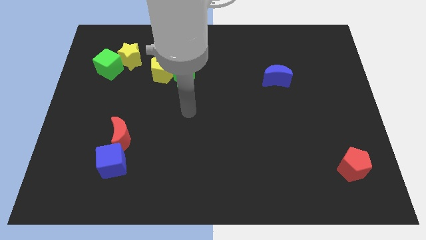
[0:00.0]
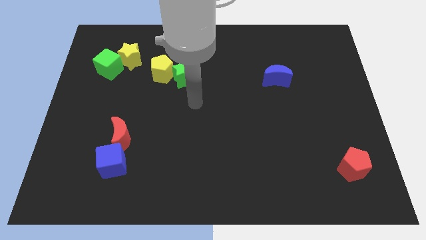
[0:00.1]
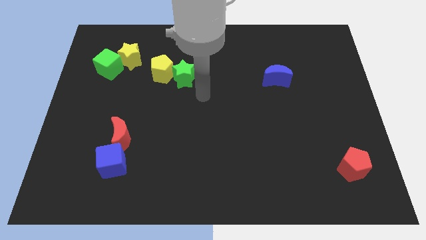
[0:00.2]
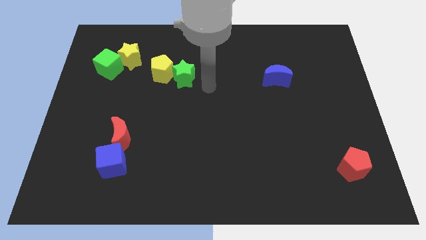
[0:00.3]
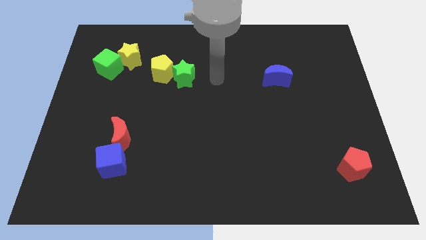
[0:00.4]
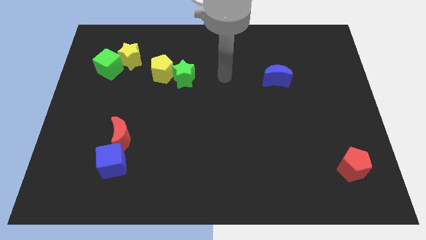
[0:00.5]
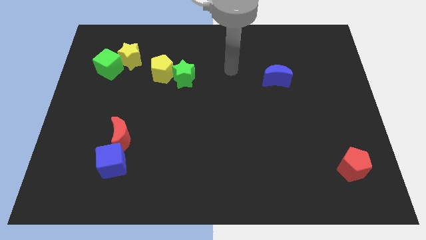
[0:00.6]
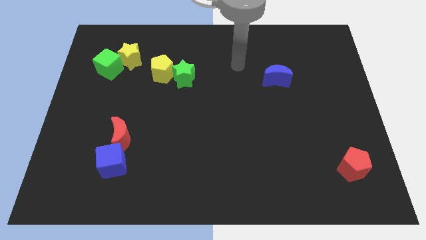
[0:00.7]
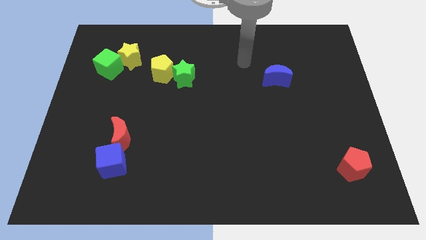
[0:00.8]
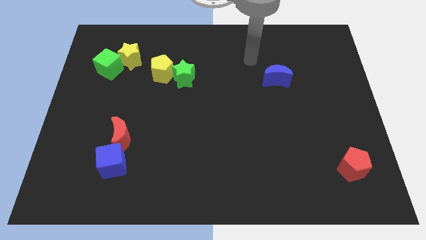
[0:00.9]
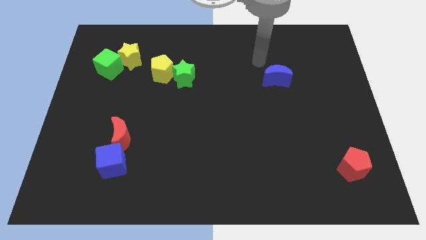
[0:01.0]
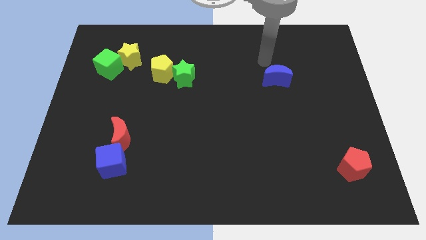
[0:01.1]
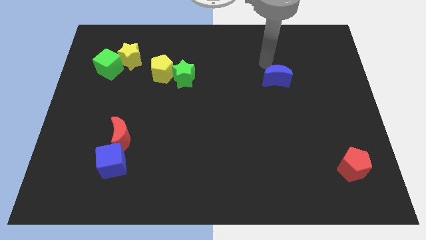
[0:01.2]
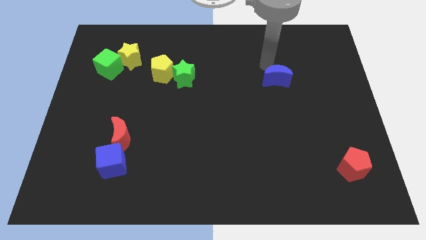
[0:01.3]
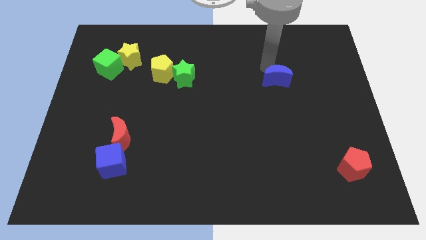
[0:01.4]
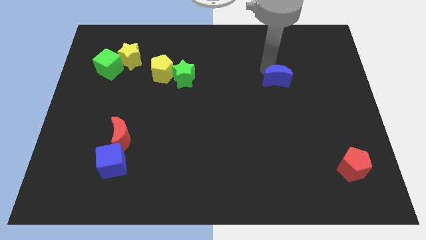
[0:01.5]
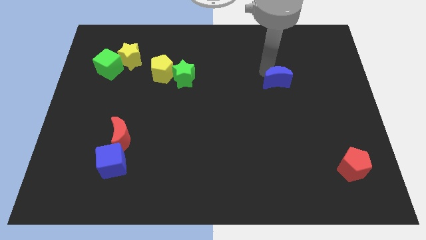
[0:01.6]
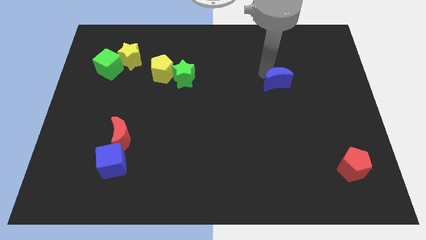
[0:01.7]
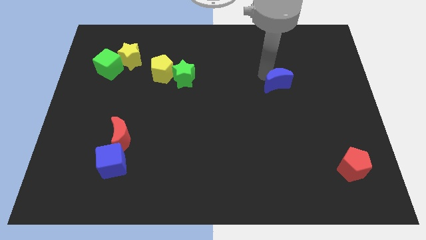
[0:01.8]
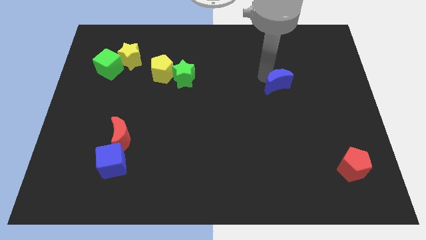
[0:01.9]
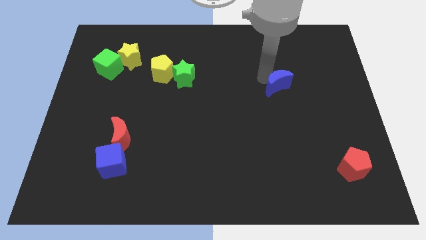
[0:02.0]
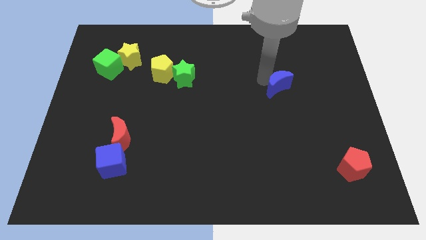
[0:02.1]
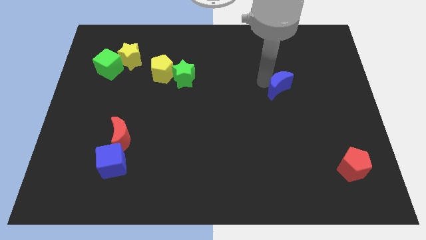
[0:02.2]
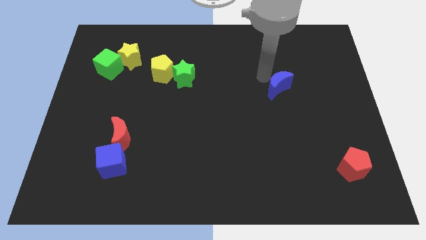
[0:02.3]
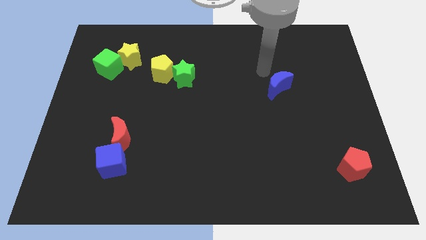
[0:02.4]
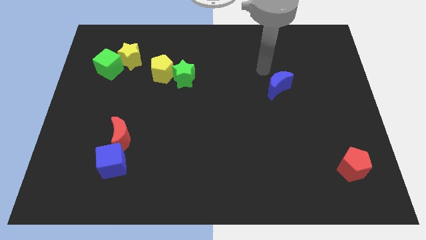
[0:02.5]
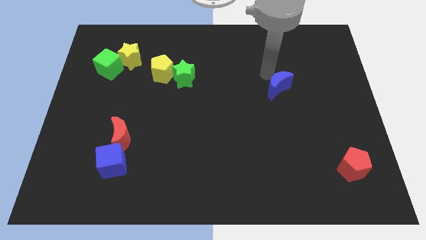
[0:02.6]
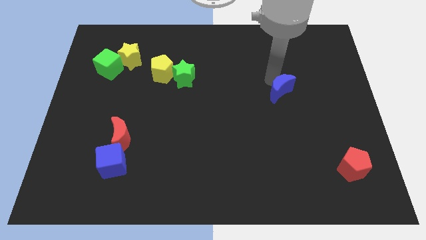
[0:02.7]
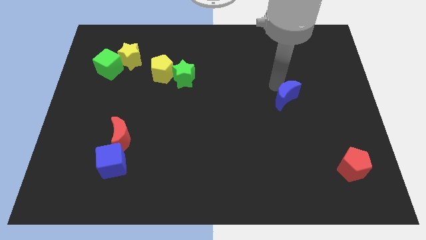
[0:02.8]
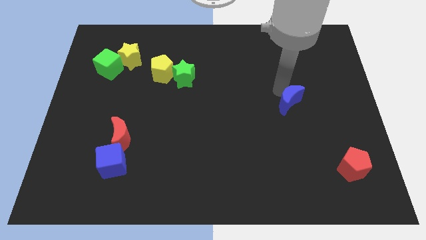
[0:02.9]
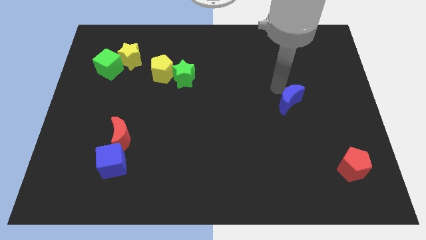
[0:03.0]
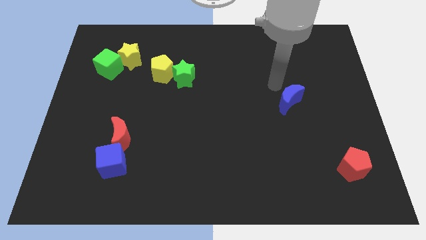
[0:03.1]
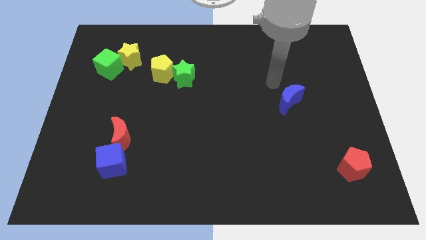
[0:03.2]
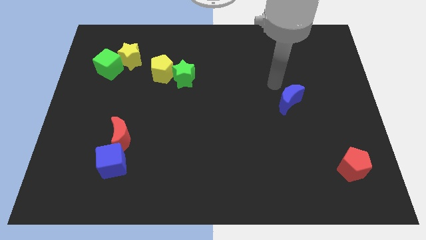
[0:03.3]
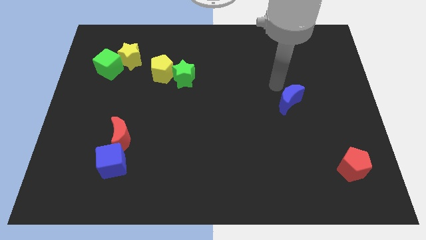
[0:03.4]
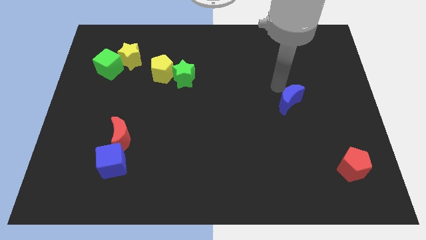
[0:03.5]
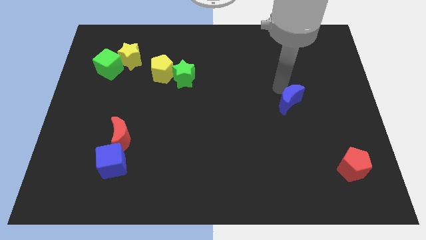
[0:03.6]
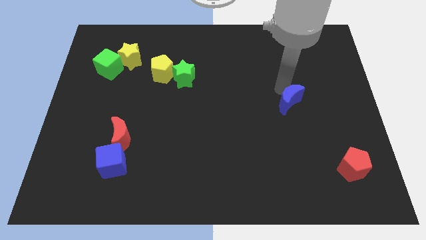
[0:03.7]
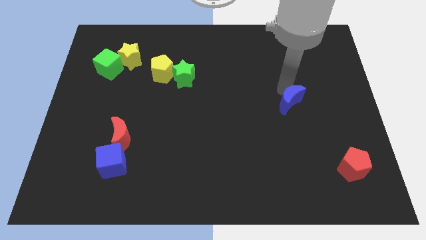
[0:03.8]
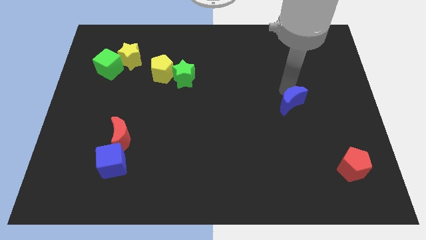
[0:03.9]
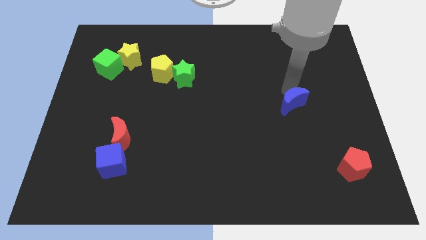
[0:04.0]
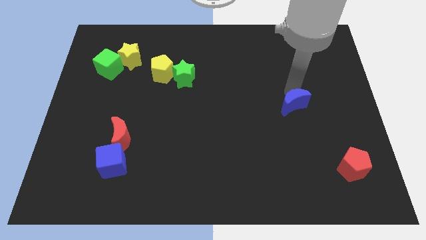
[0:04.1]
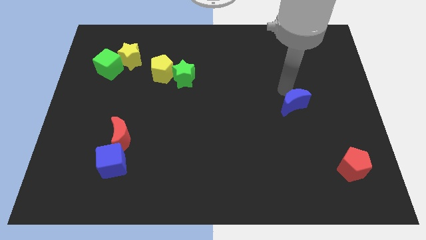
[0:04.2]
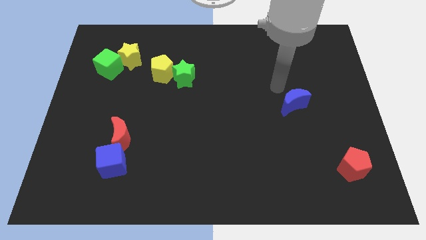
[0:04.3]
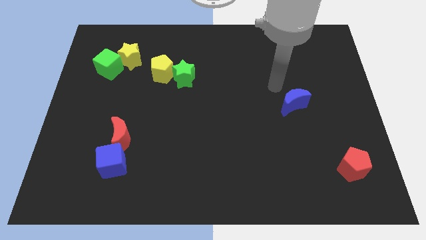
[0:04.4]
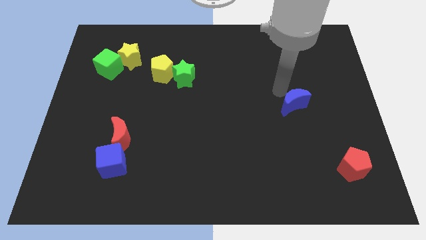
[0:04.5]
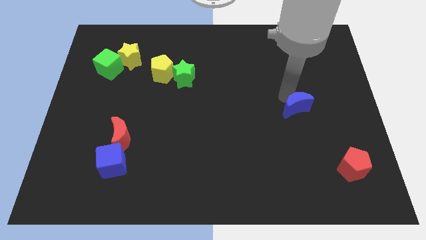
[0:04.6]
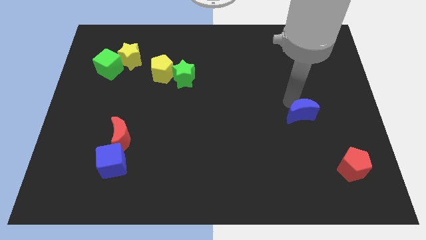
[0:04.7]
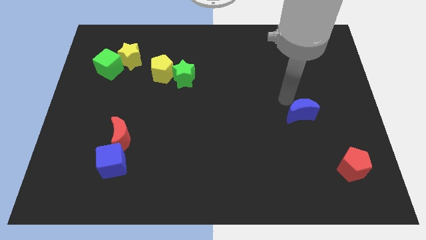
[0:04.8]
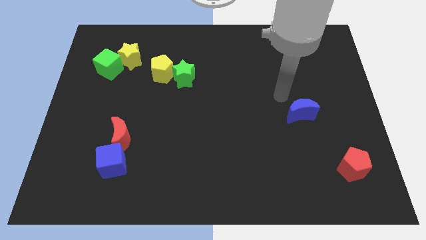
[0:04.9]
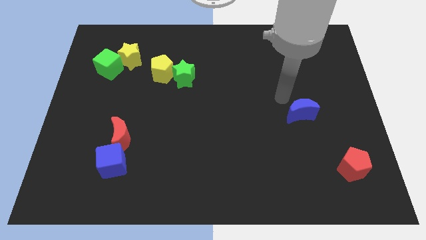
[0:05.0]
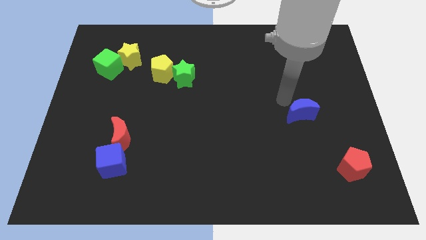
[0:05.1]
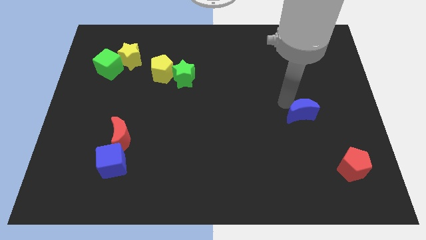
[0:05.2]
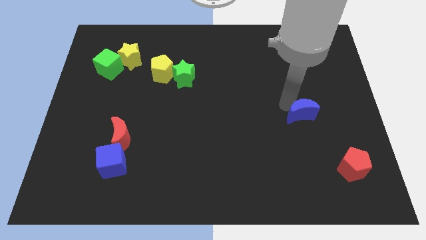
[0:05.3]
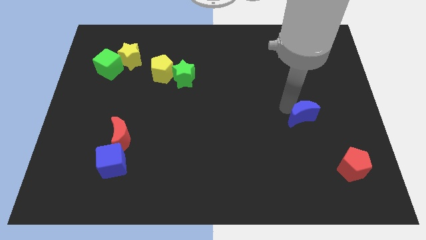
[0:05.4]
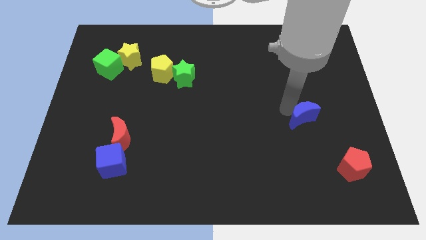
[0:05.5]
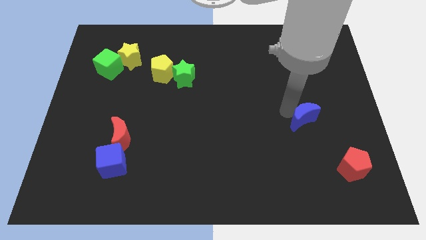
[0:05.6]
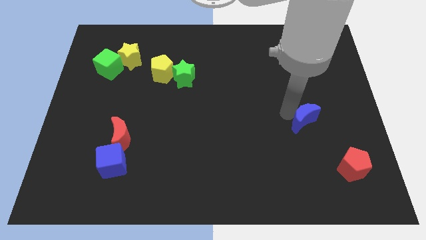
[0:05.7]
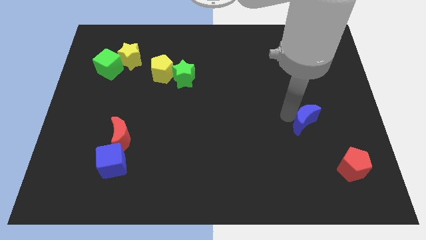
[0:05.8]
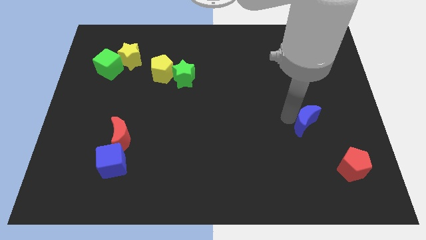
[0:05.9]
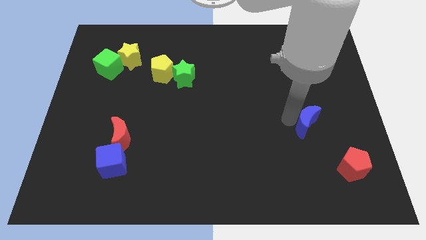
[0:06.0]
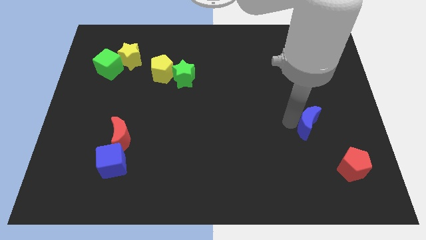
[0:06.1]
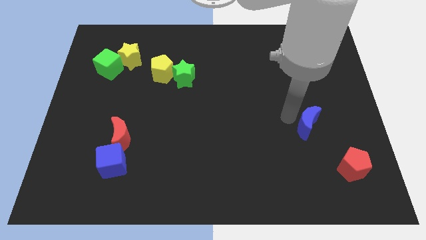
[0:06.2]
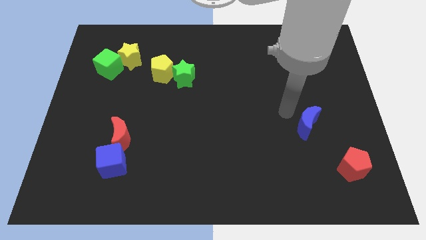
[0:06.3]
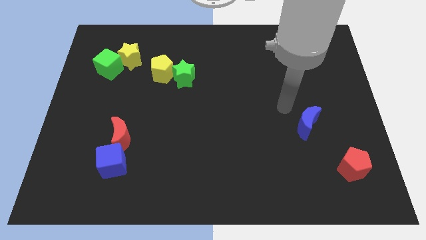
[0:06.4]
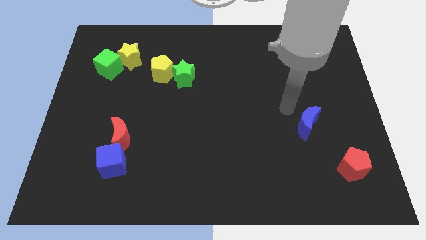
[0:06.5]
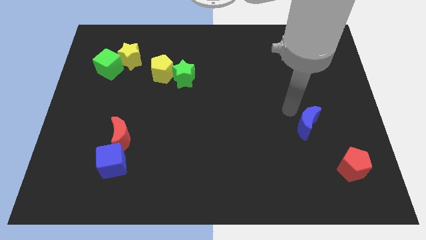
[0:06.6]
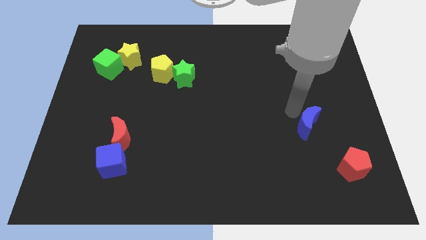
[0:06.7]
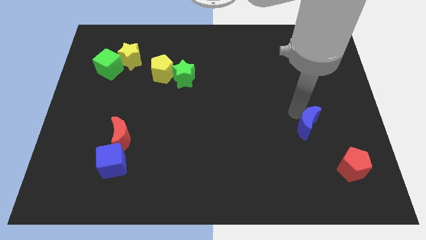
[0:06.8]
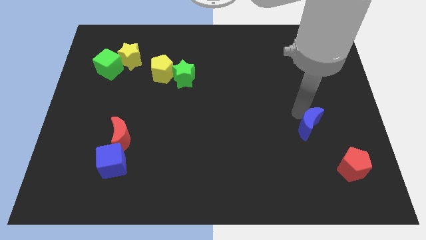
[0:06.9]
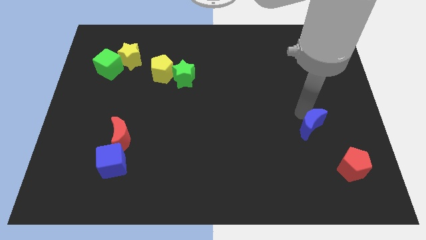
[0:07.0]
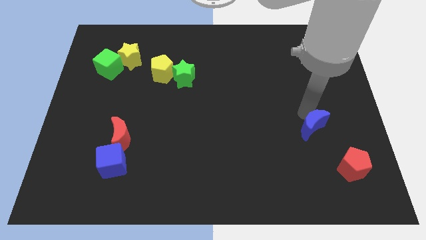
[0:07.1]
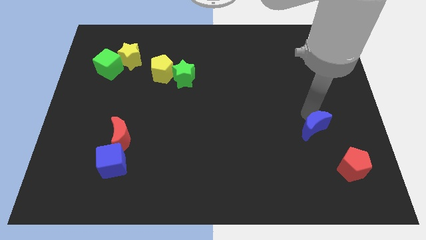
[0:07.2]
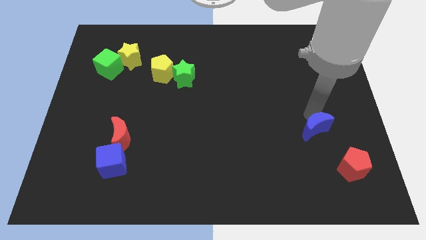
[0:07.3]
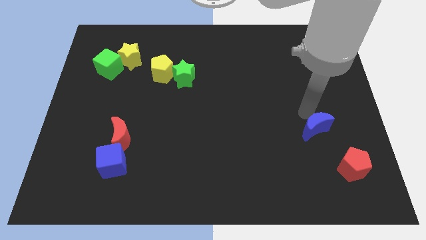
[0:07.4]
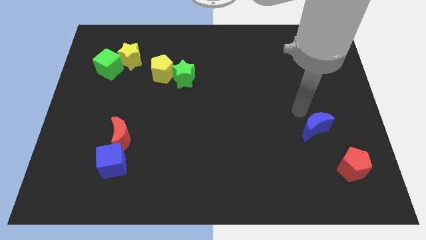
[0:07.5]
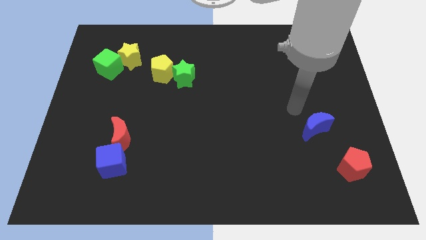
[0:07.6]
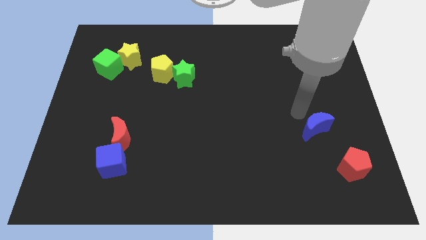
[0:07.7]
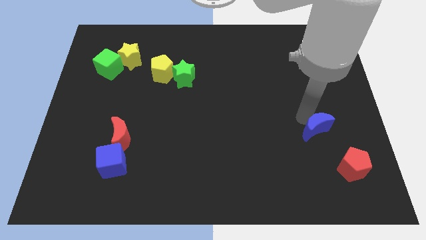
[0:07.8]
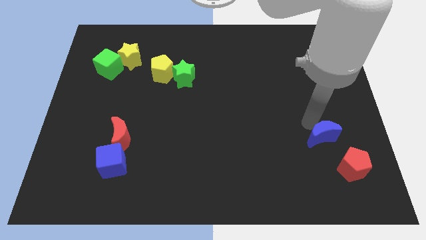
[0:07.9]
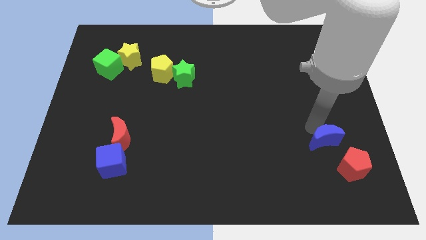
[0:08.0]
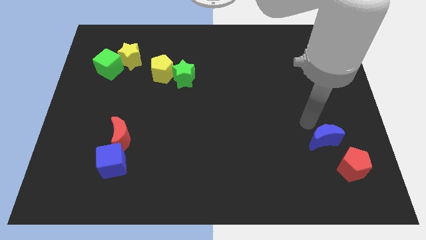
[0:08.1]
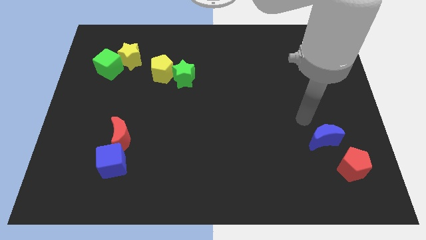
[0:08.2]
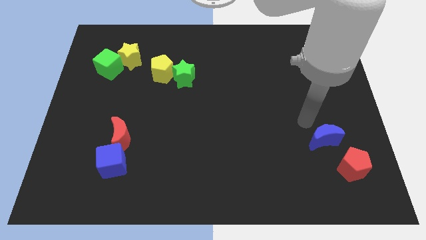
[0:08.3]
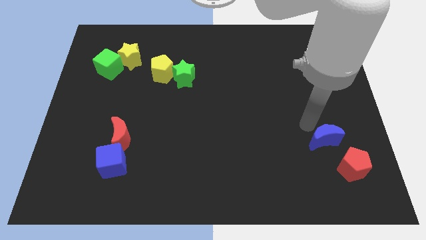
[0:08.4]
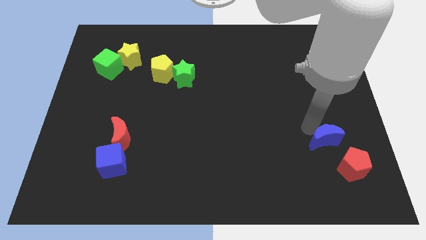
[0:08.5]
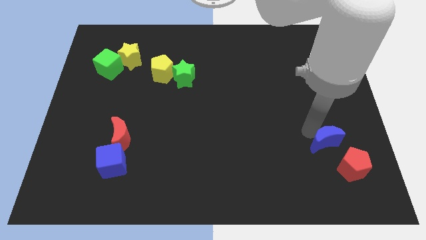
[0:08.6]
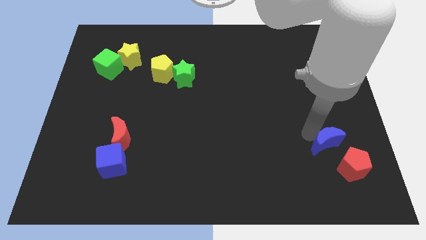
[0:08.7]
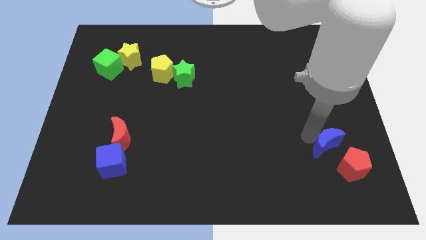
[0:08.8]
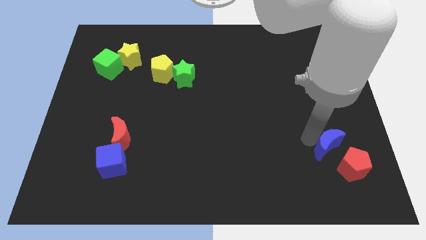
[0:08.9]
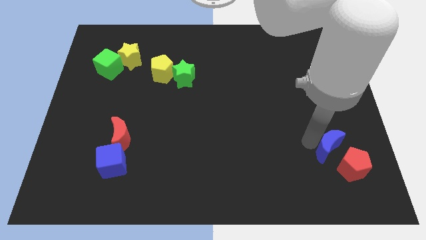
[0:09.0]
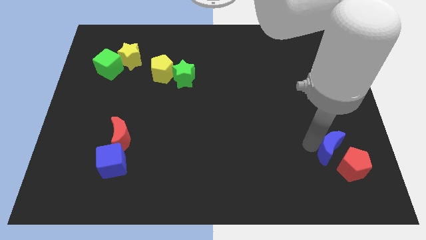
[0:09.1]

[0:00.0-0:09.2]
put the blue moon next to the red pentagon
